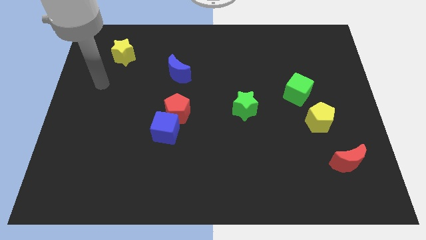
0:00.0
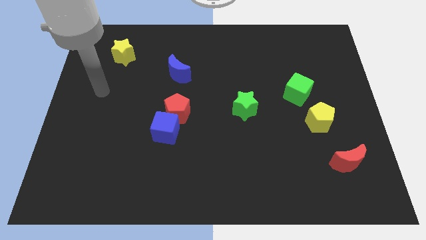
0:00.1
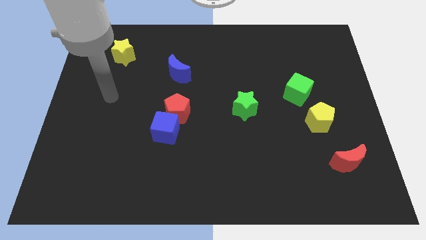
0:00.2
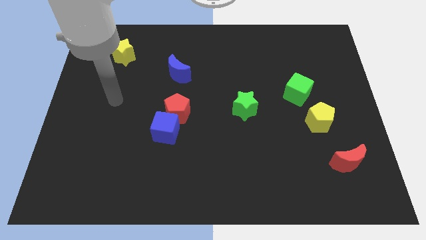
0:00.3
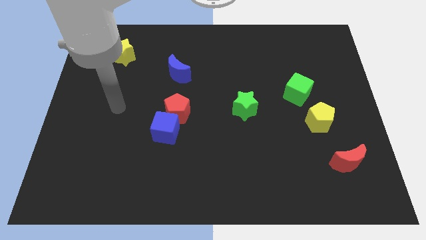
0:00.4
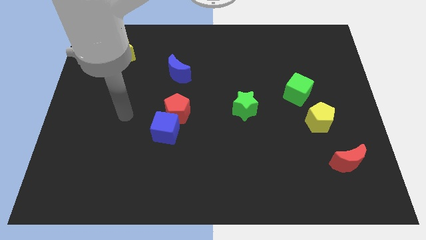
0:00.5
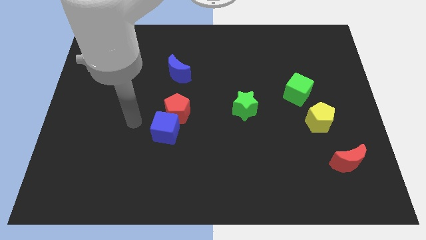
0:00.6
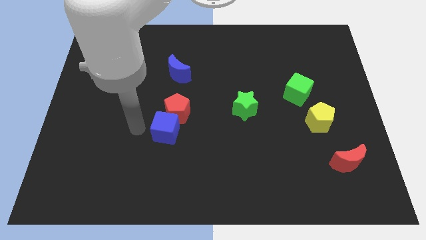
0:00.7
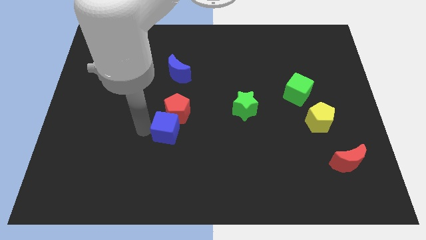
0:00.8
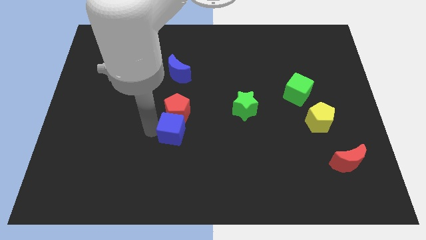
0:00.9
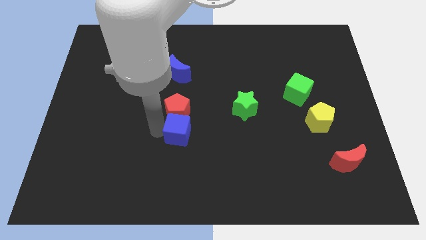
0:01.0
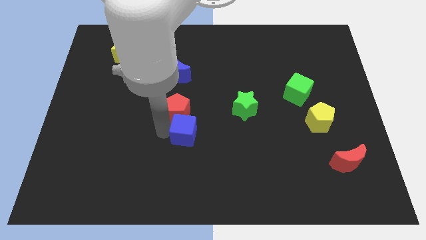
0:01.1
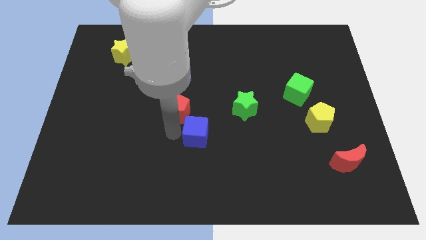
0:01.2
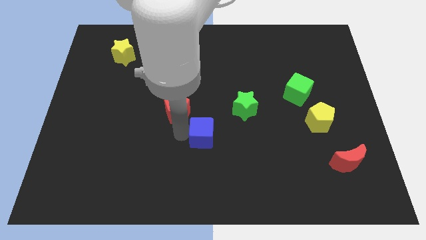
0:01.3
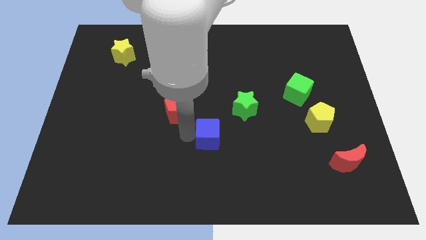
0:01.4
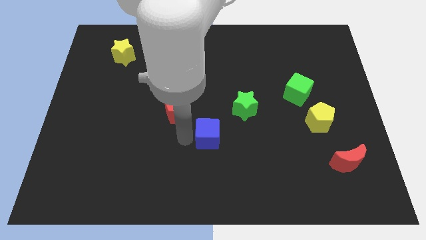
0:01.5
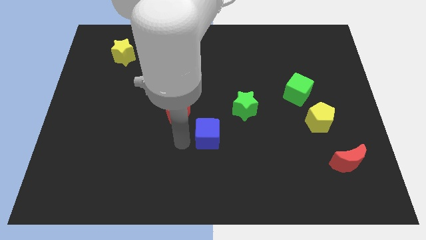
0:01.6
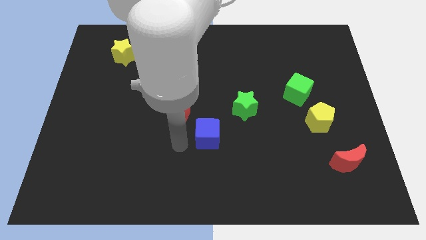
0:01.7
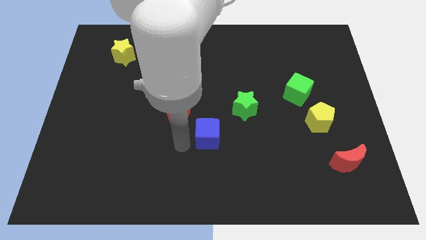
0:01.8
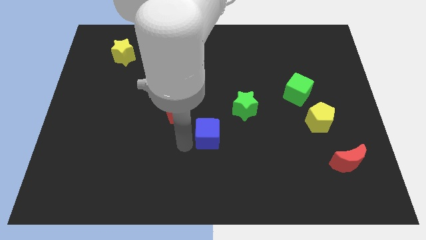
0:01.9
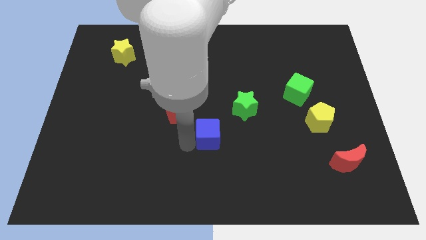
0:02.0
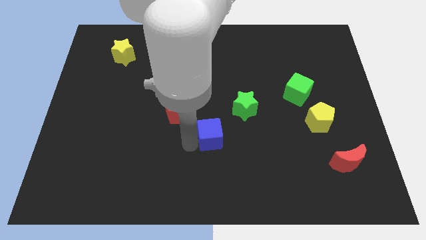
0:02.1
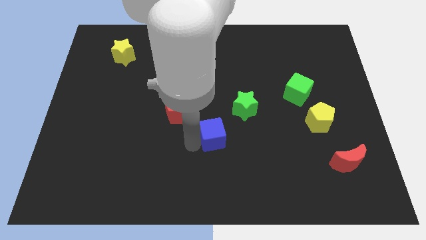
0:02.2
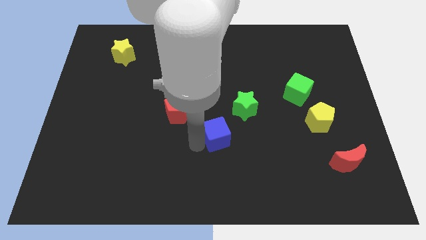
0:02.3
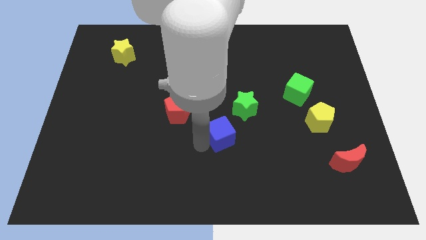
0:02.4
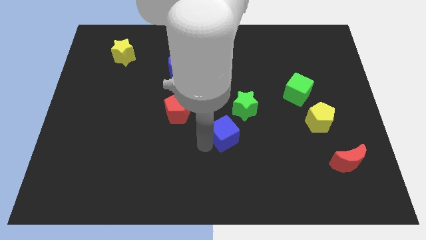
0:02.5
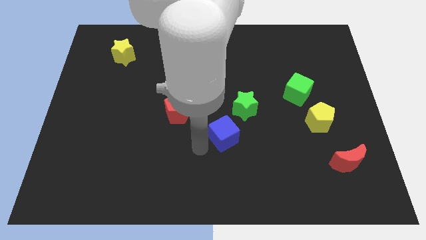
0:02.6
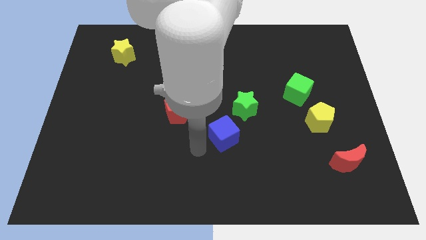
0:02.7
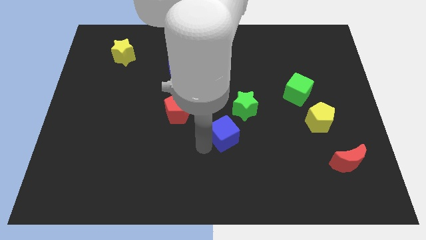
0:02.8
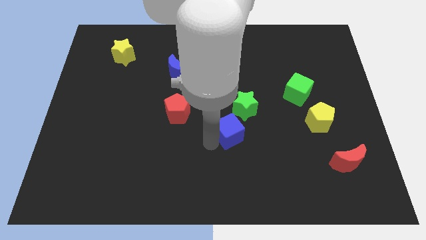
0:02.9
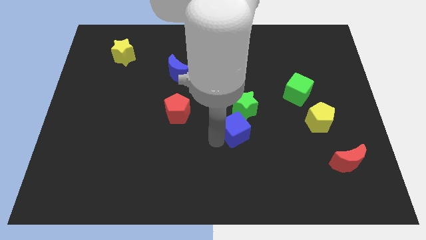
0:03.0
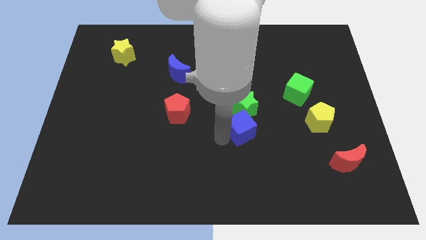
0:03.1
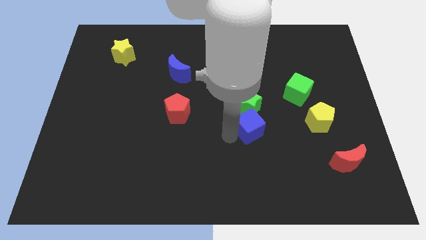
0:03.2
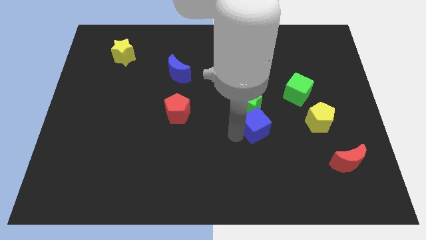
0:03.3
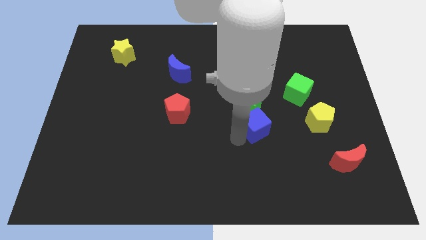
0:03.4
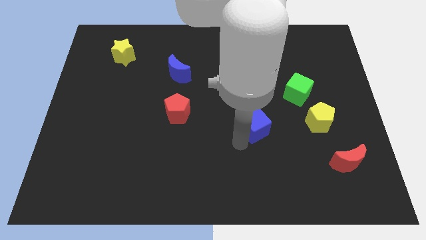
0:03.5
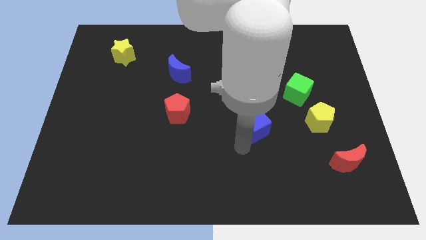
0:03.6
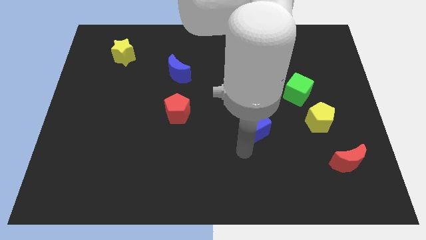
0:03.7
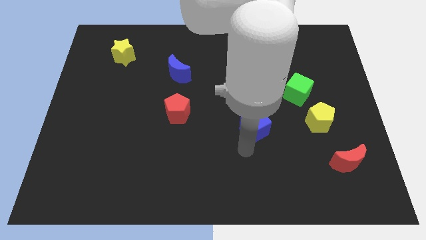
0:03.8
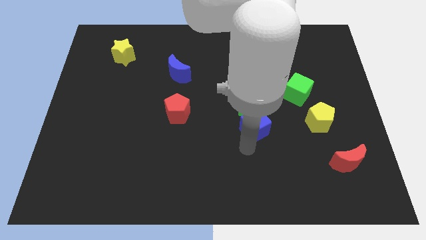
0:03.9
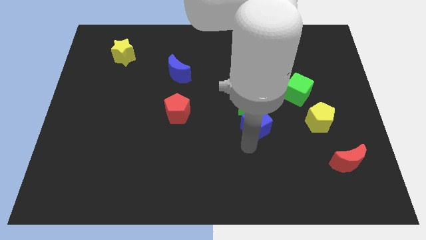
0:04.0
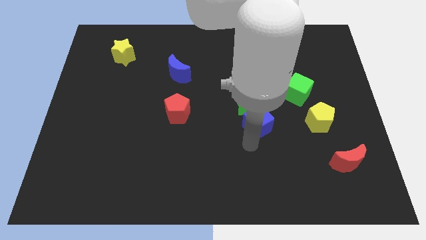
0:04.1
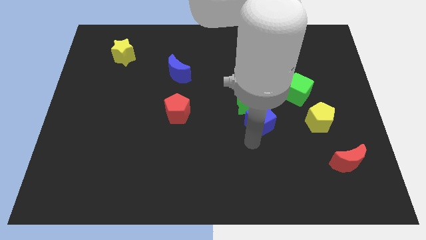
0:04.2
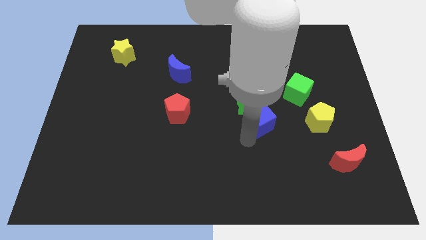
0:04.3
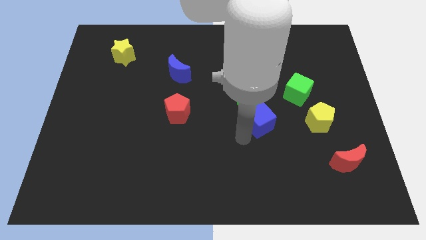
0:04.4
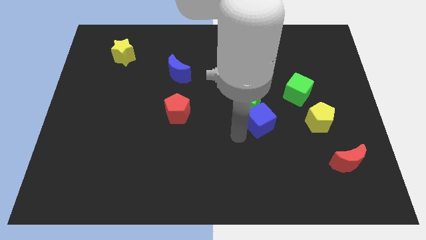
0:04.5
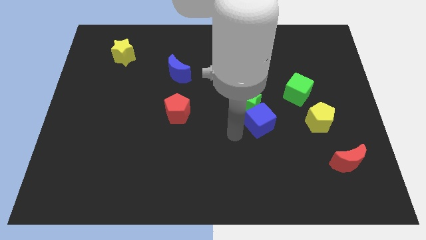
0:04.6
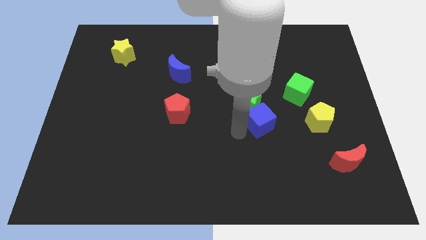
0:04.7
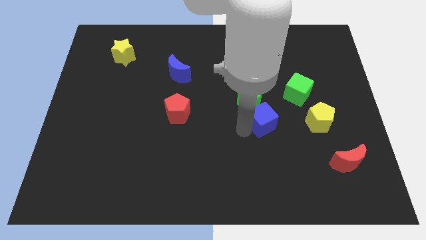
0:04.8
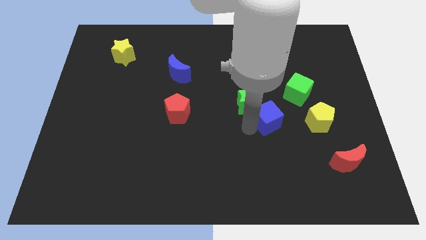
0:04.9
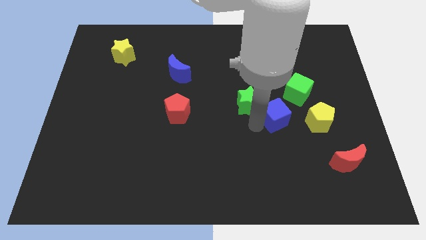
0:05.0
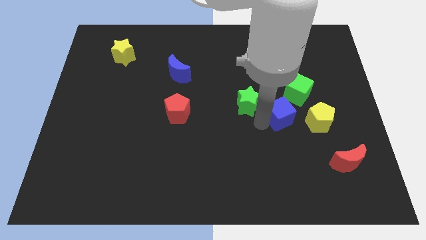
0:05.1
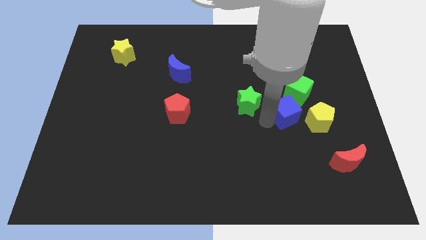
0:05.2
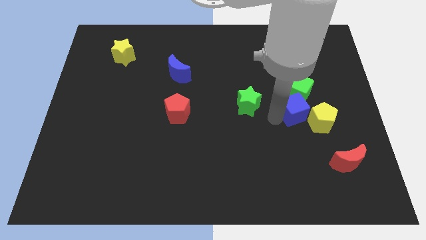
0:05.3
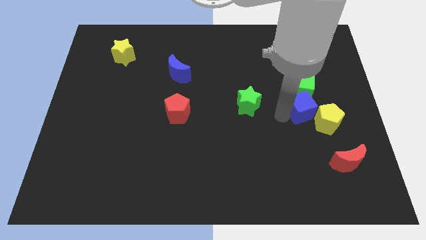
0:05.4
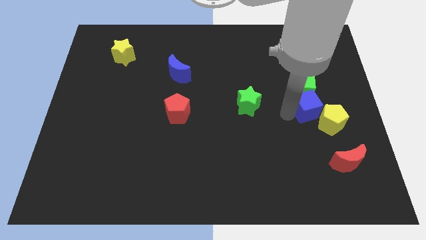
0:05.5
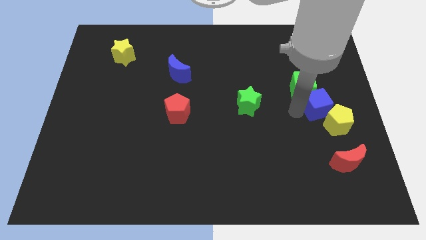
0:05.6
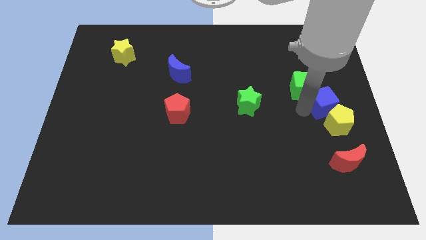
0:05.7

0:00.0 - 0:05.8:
slide the blue cube to the right side

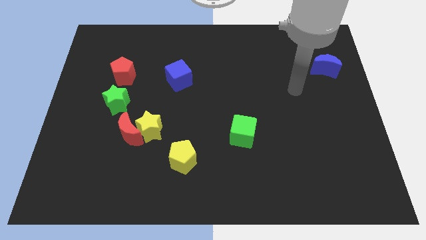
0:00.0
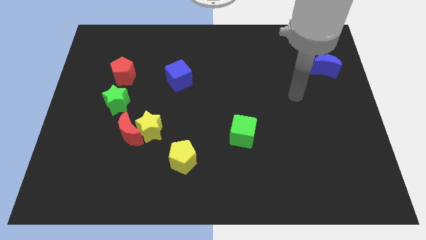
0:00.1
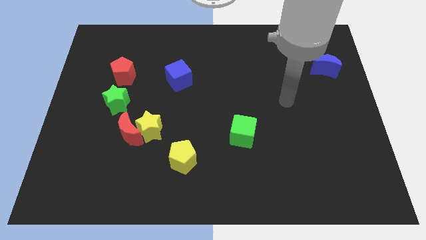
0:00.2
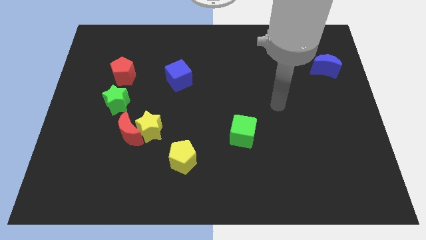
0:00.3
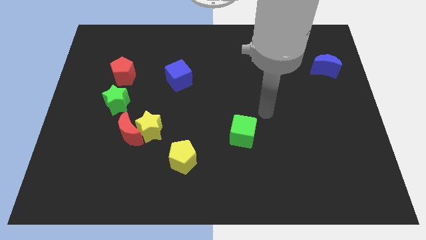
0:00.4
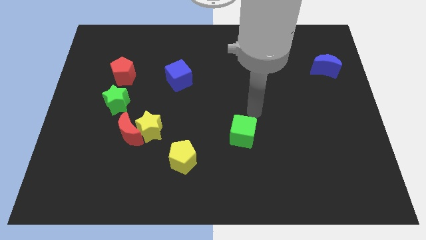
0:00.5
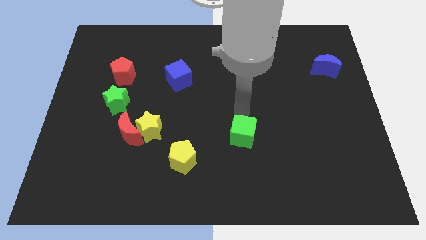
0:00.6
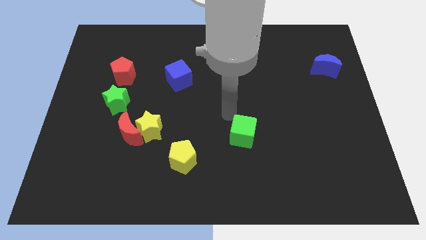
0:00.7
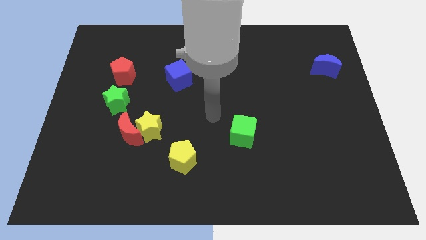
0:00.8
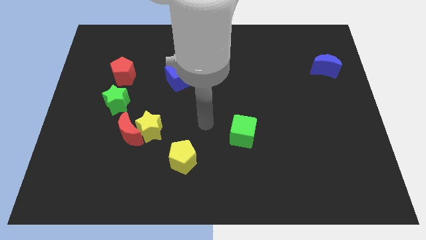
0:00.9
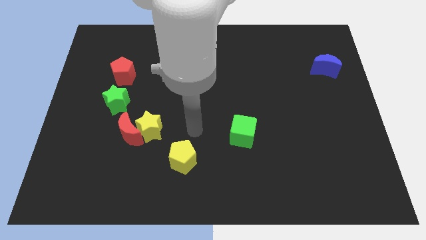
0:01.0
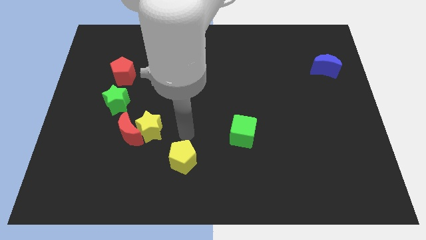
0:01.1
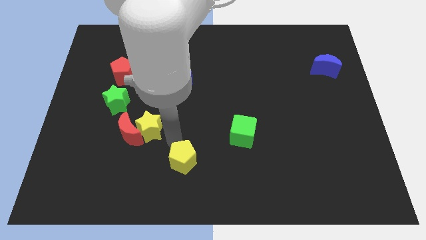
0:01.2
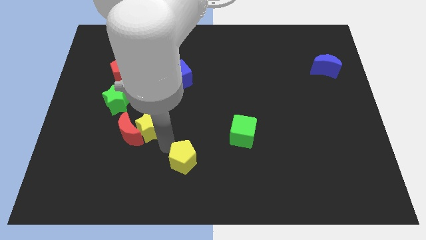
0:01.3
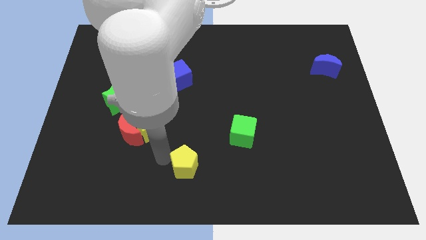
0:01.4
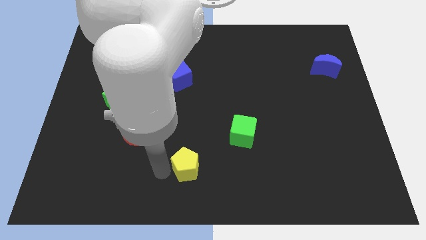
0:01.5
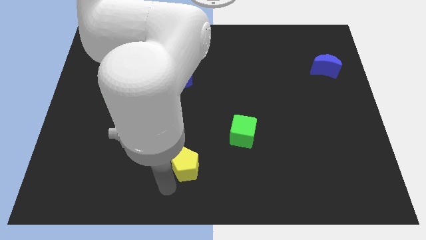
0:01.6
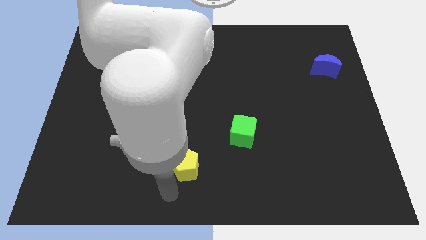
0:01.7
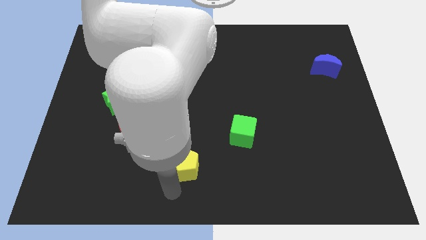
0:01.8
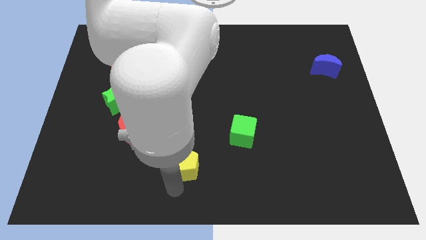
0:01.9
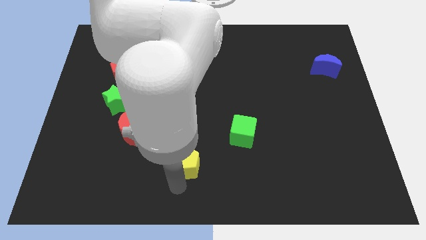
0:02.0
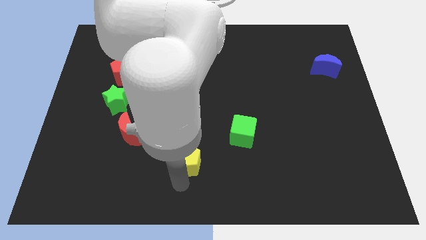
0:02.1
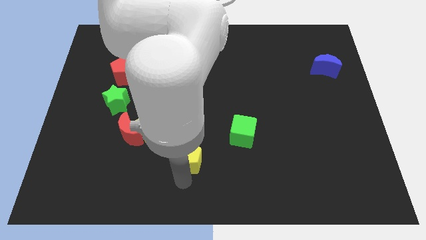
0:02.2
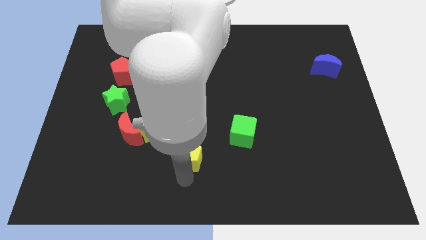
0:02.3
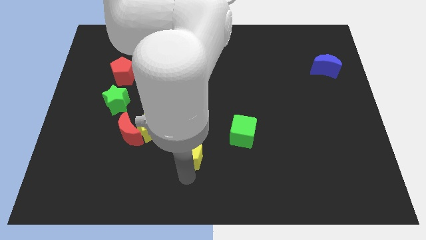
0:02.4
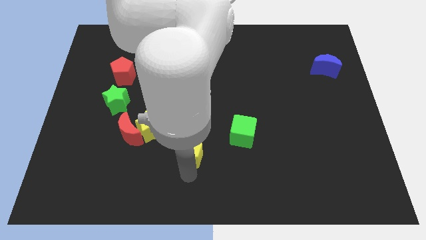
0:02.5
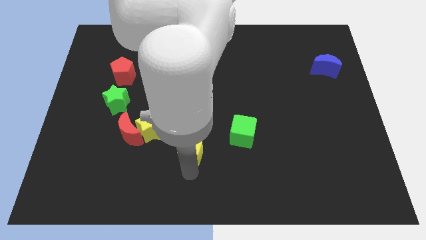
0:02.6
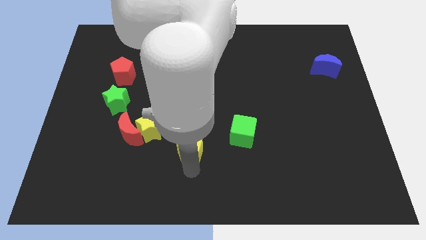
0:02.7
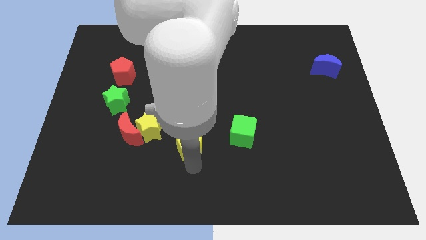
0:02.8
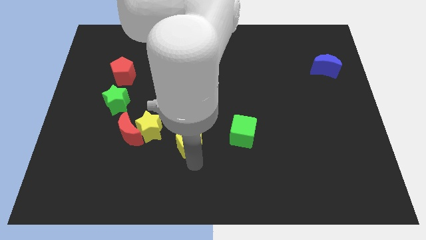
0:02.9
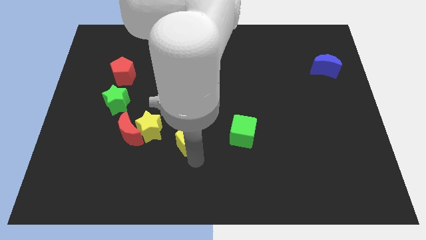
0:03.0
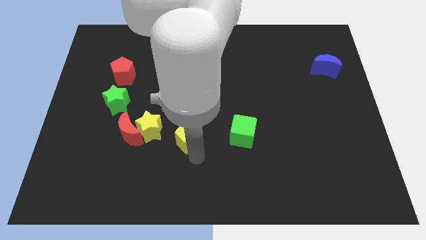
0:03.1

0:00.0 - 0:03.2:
slide the yellow pentagon to the middle of the board
